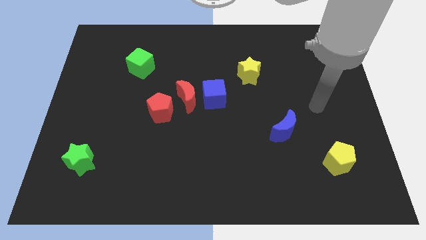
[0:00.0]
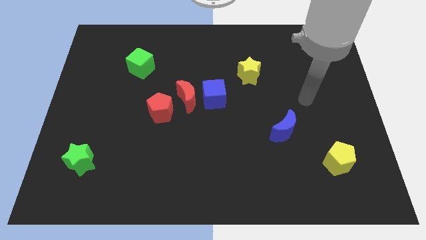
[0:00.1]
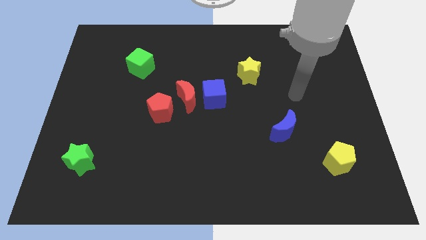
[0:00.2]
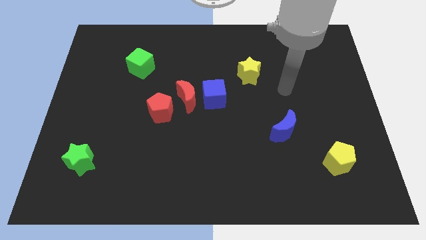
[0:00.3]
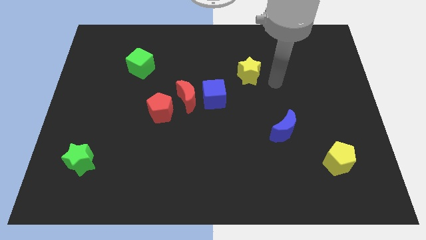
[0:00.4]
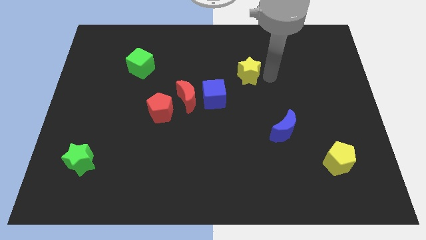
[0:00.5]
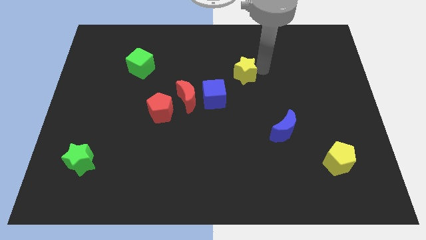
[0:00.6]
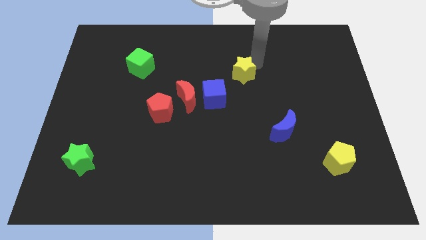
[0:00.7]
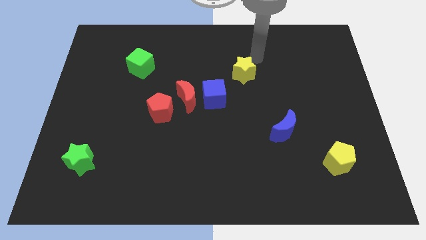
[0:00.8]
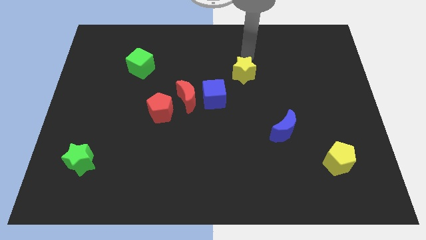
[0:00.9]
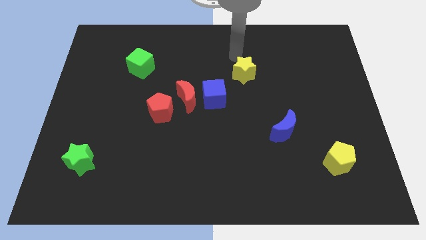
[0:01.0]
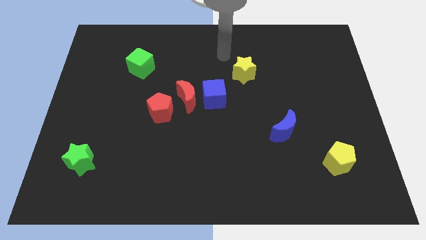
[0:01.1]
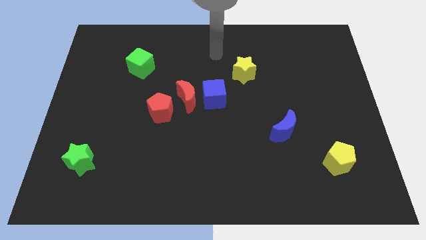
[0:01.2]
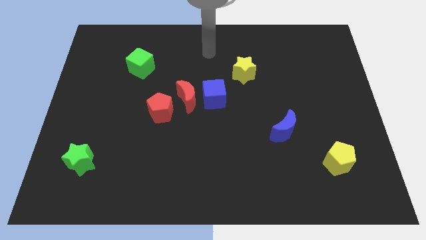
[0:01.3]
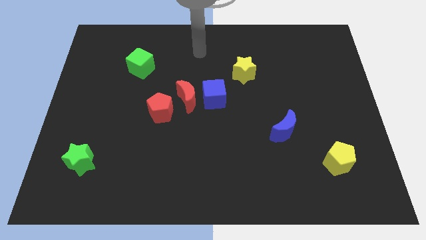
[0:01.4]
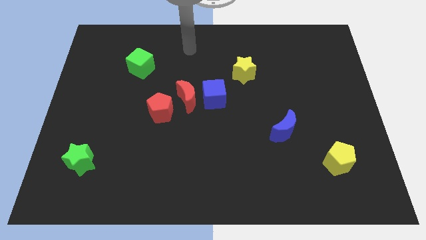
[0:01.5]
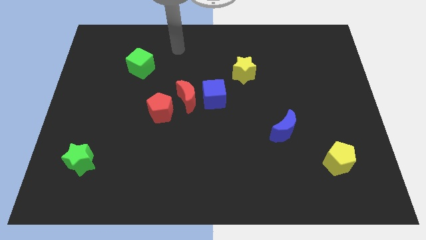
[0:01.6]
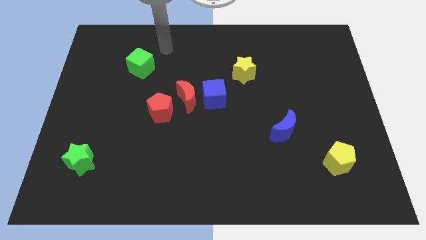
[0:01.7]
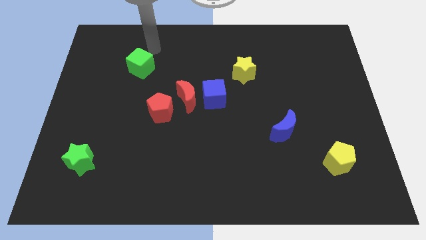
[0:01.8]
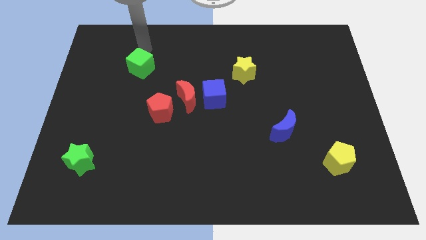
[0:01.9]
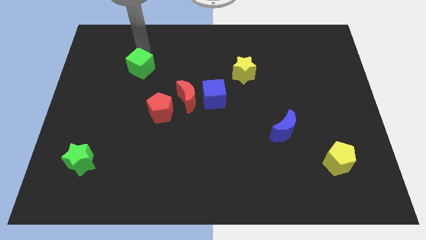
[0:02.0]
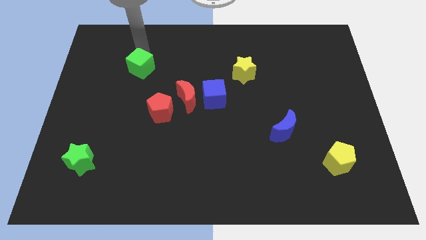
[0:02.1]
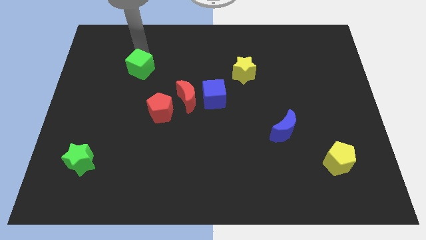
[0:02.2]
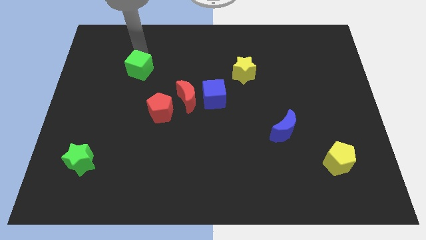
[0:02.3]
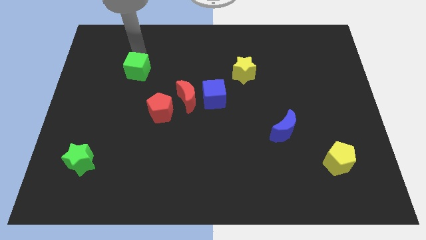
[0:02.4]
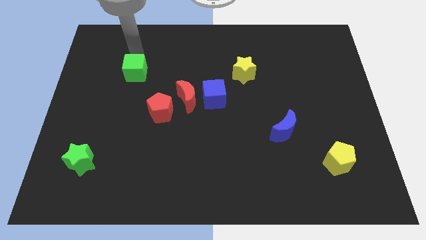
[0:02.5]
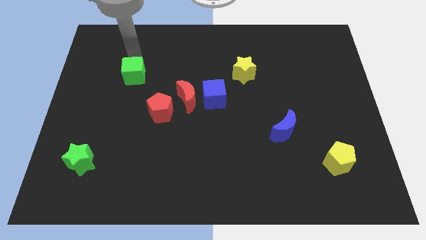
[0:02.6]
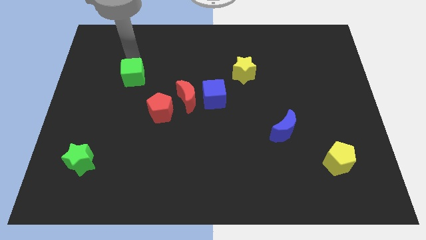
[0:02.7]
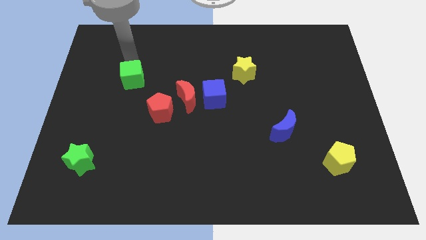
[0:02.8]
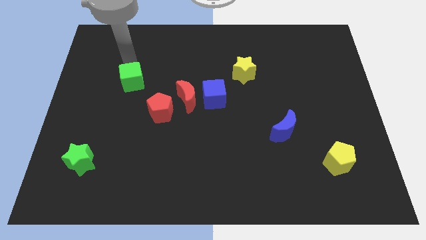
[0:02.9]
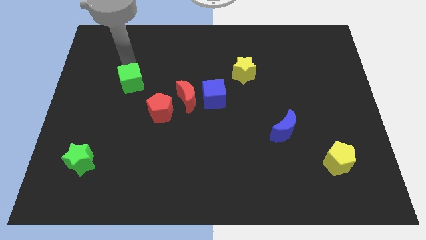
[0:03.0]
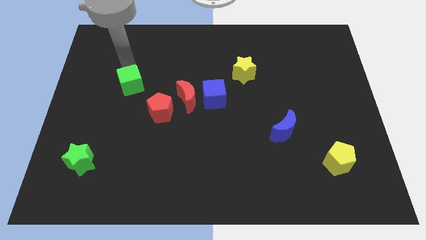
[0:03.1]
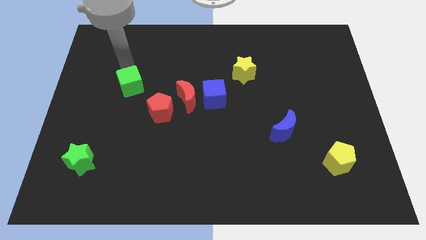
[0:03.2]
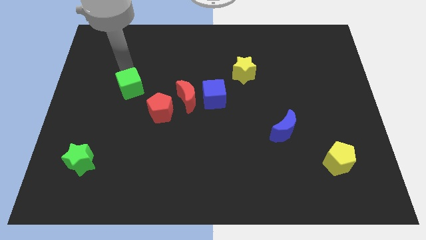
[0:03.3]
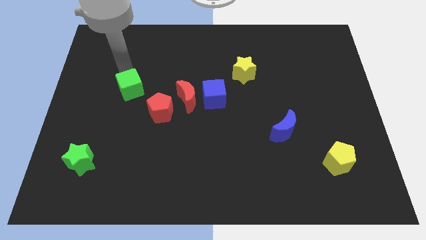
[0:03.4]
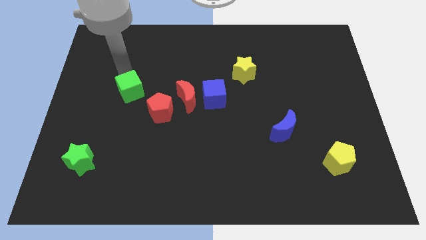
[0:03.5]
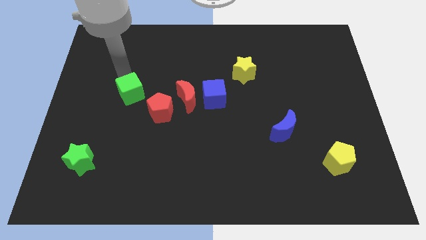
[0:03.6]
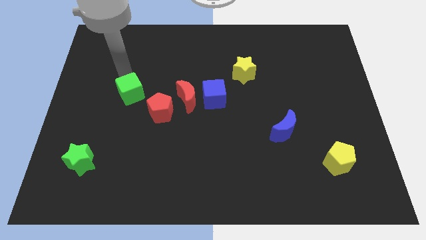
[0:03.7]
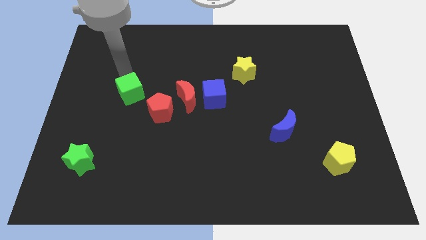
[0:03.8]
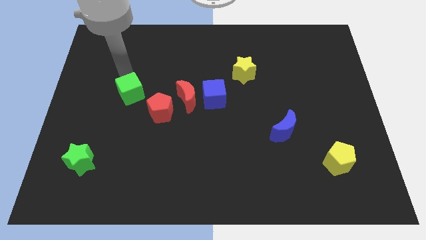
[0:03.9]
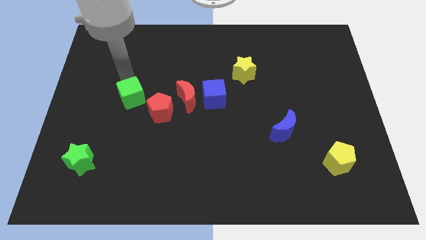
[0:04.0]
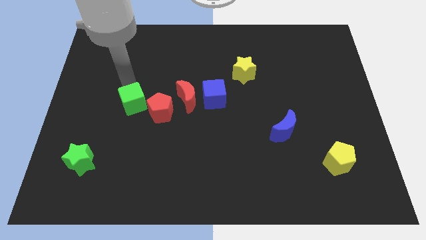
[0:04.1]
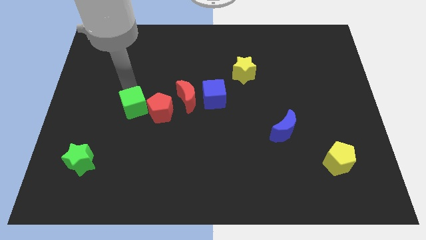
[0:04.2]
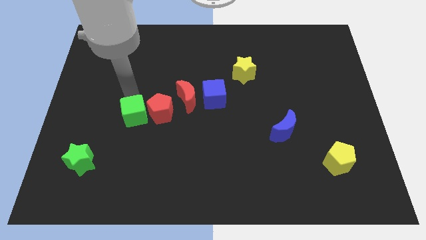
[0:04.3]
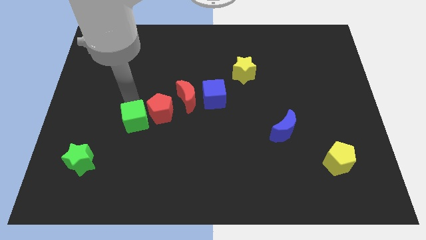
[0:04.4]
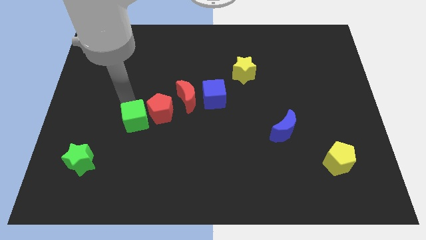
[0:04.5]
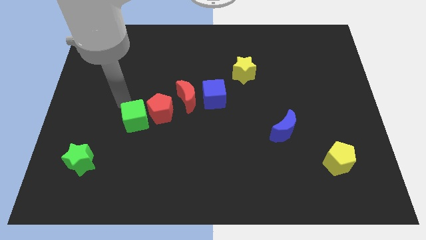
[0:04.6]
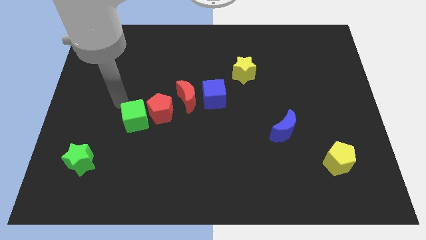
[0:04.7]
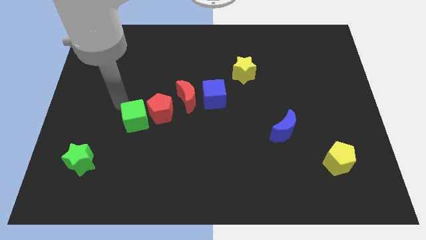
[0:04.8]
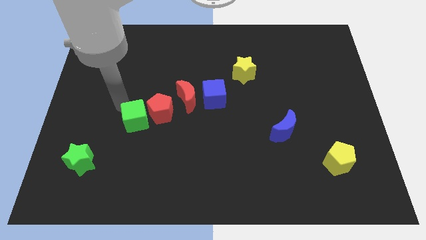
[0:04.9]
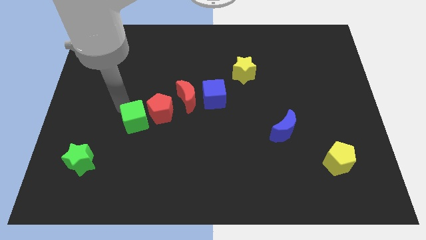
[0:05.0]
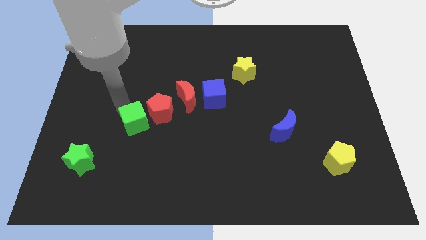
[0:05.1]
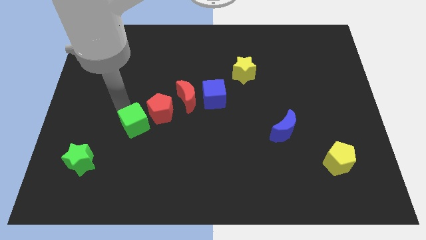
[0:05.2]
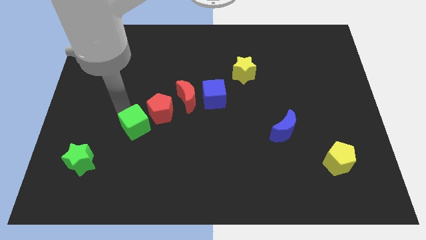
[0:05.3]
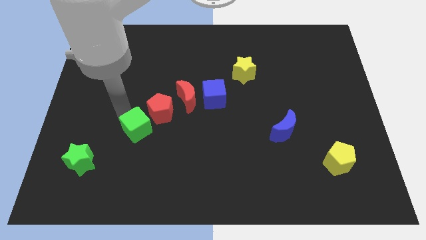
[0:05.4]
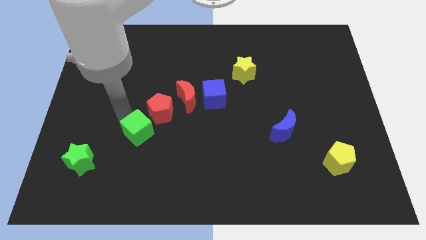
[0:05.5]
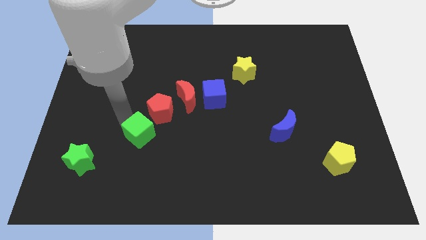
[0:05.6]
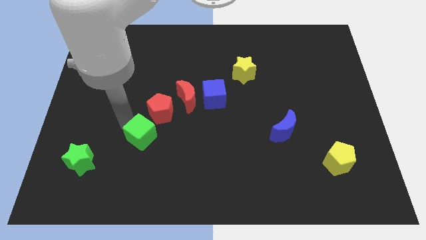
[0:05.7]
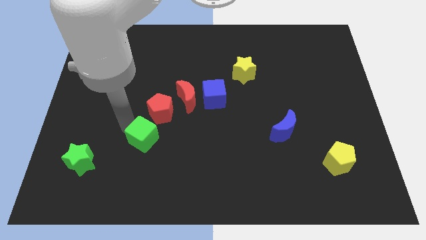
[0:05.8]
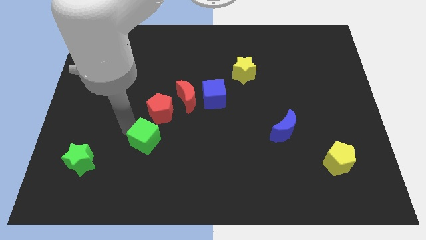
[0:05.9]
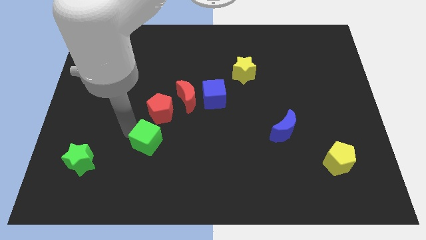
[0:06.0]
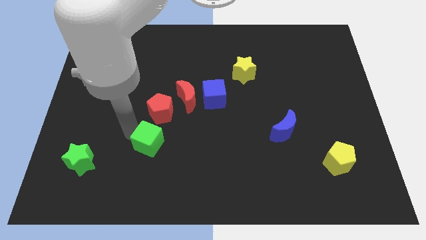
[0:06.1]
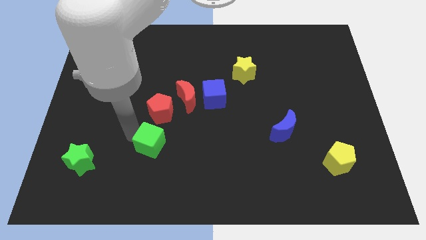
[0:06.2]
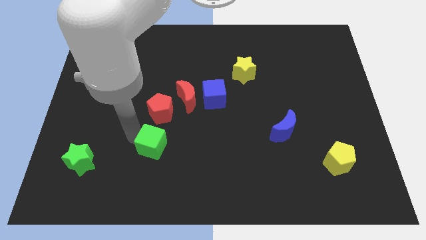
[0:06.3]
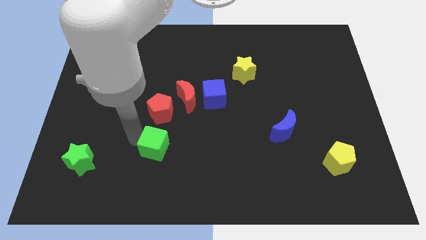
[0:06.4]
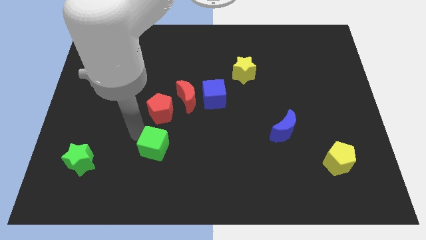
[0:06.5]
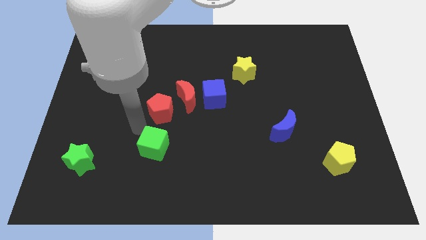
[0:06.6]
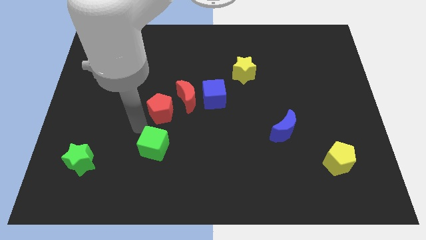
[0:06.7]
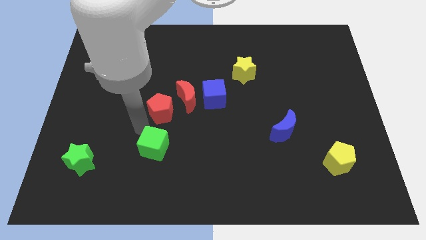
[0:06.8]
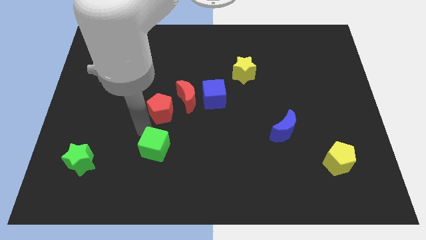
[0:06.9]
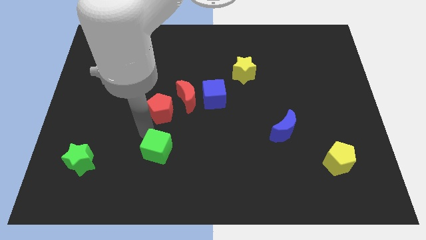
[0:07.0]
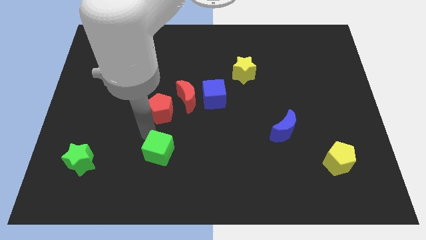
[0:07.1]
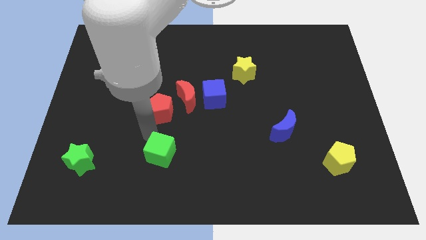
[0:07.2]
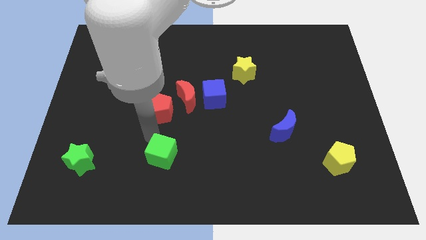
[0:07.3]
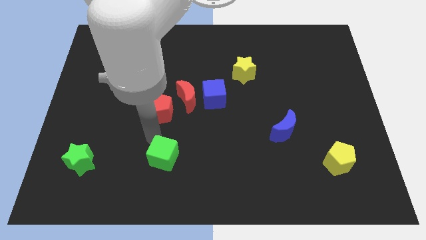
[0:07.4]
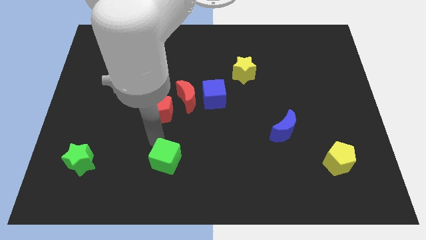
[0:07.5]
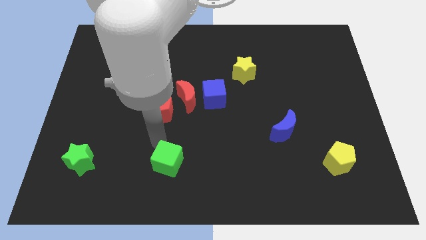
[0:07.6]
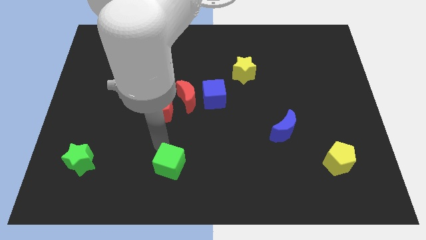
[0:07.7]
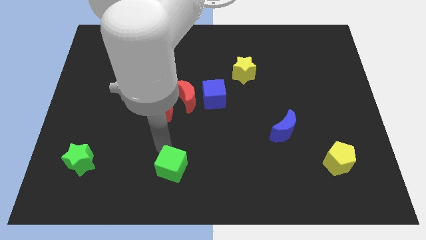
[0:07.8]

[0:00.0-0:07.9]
slide the green cube to the bottom
